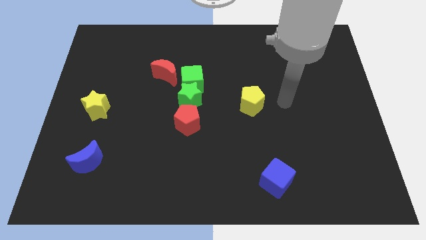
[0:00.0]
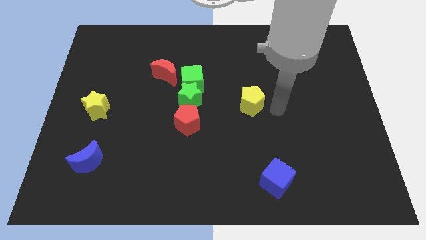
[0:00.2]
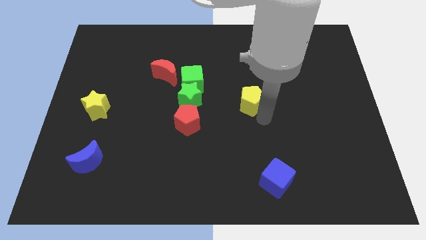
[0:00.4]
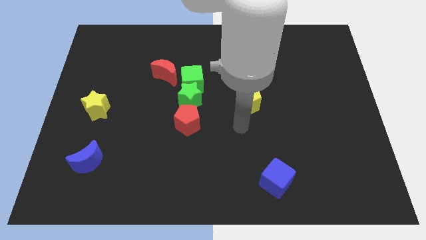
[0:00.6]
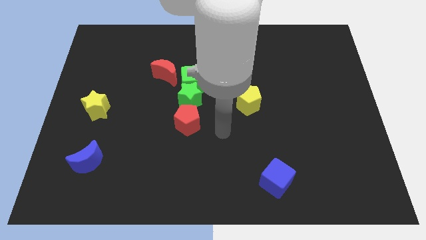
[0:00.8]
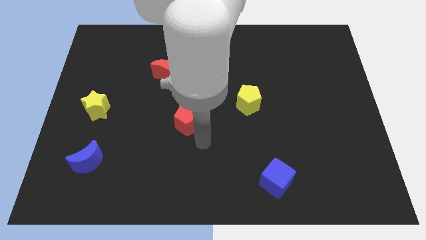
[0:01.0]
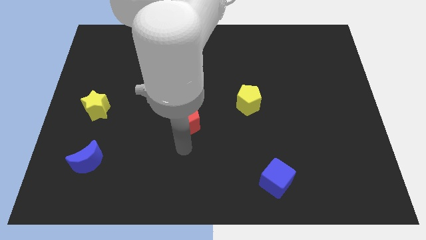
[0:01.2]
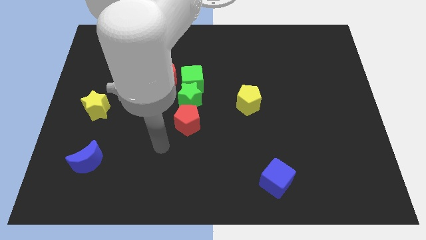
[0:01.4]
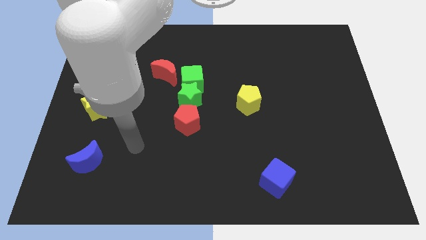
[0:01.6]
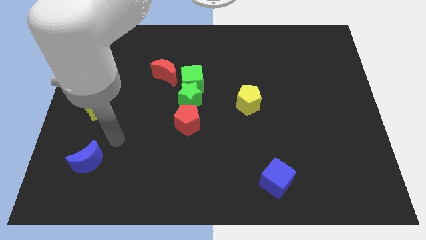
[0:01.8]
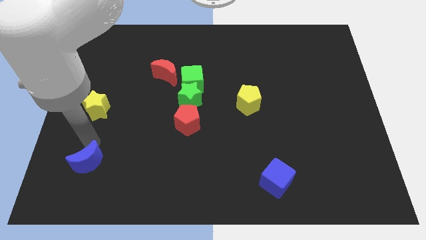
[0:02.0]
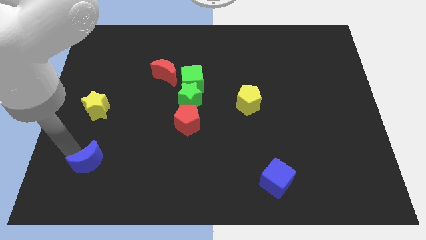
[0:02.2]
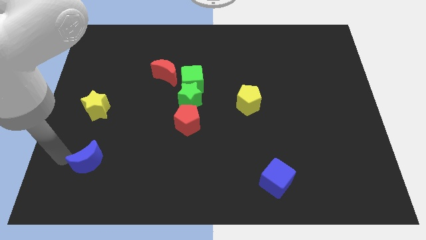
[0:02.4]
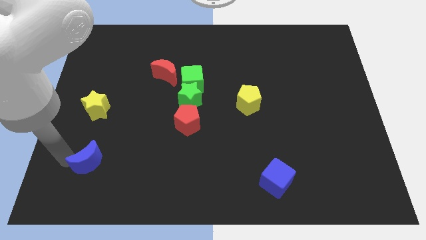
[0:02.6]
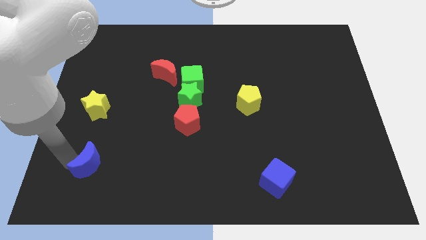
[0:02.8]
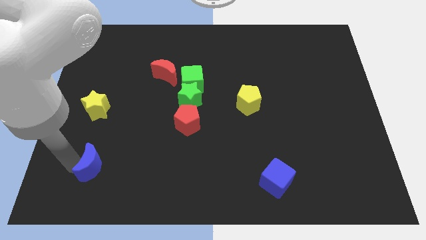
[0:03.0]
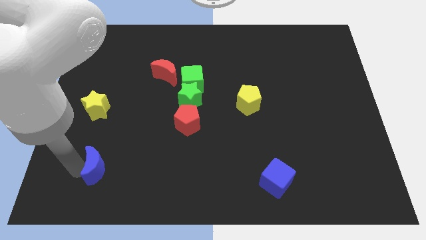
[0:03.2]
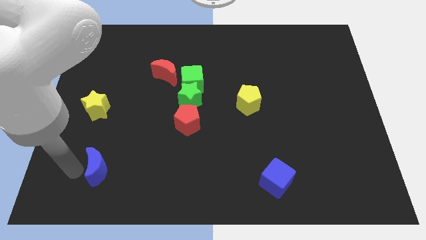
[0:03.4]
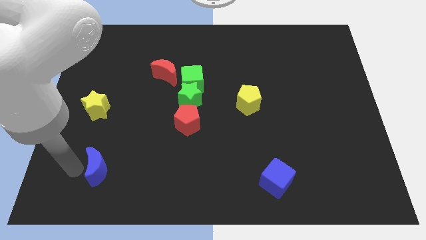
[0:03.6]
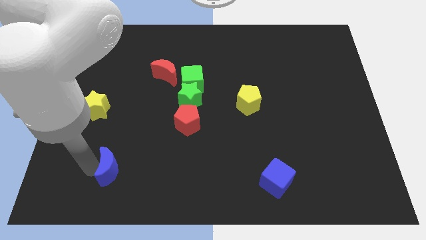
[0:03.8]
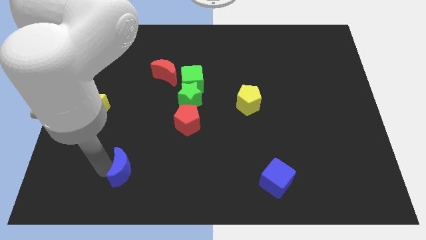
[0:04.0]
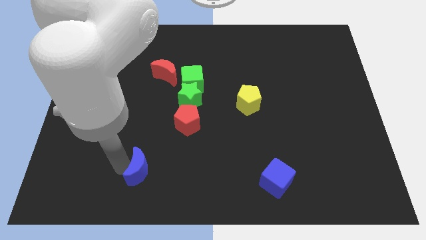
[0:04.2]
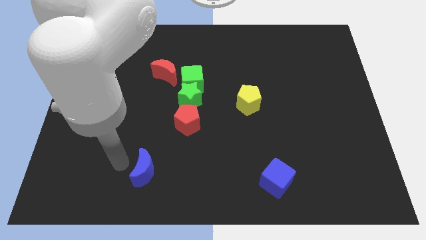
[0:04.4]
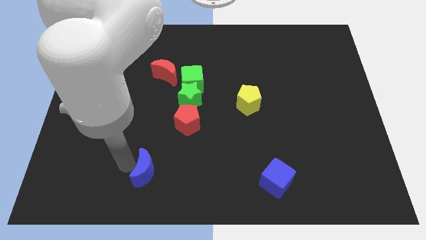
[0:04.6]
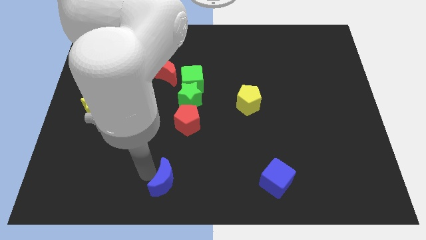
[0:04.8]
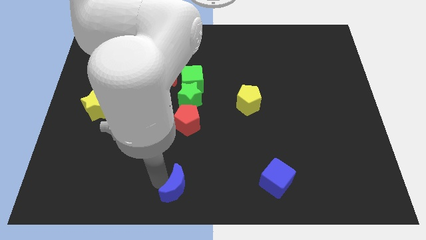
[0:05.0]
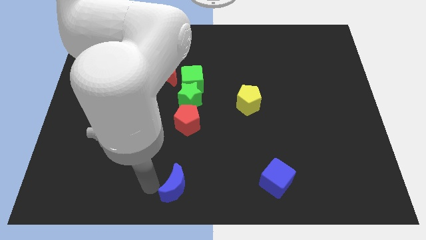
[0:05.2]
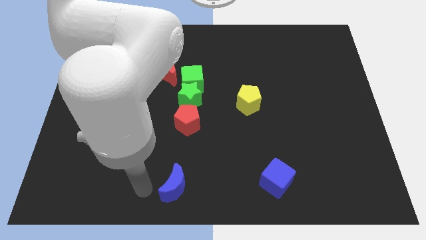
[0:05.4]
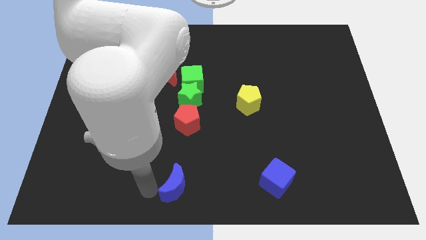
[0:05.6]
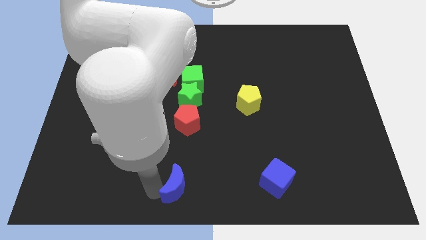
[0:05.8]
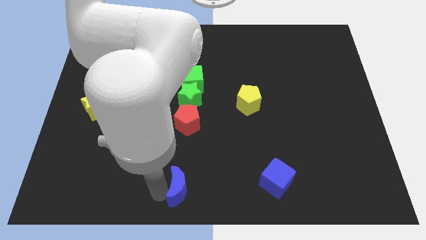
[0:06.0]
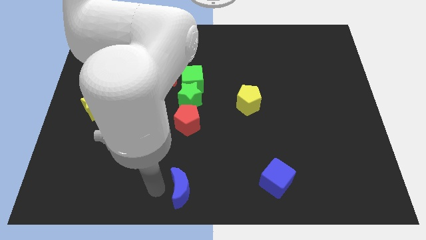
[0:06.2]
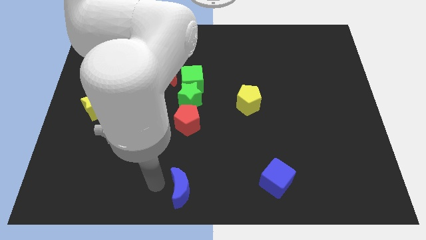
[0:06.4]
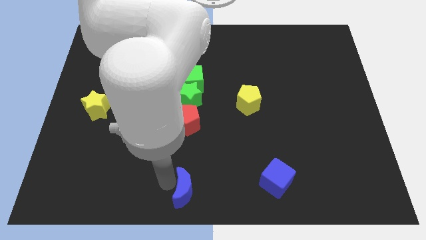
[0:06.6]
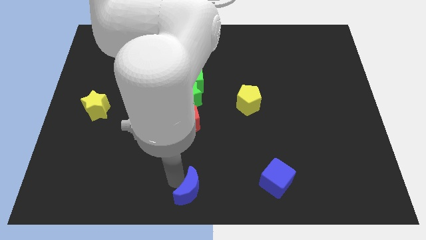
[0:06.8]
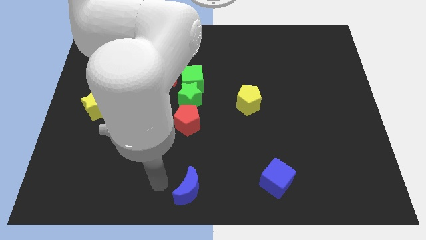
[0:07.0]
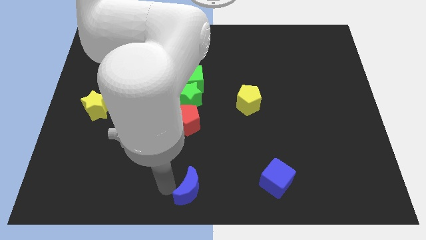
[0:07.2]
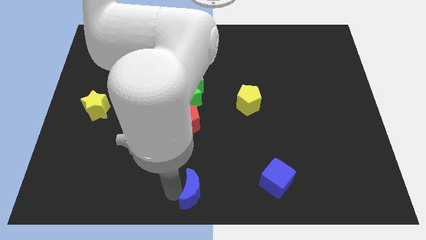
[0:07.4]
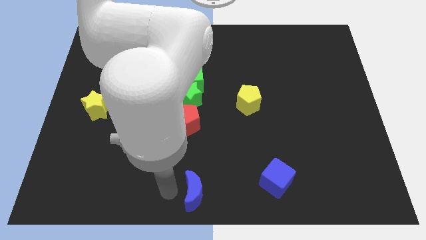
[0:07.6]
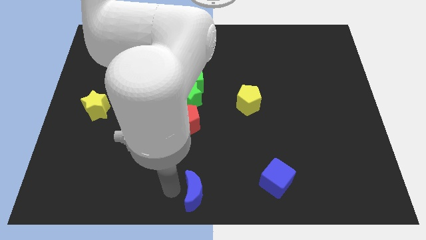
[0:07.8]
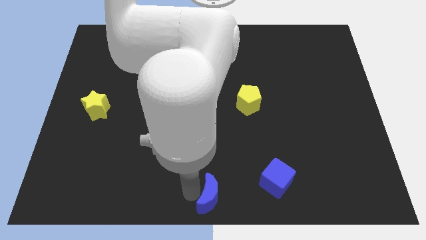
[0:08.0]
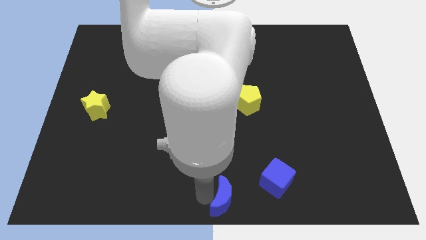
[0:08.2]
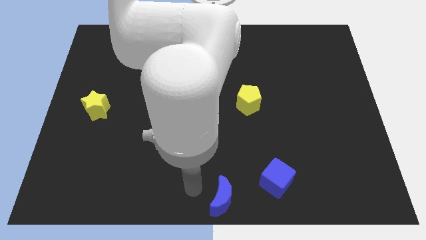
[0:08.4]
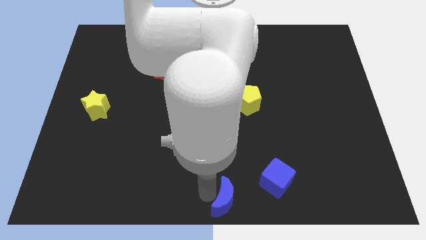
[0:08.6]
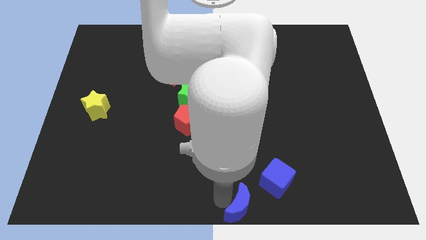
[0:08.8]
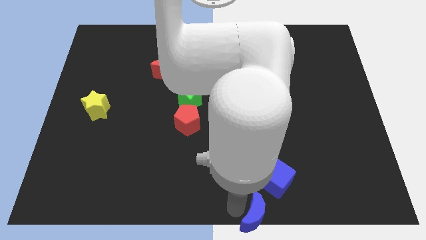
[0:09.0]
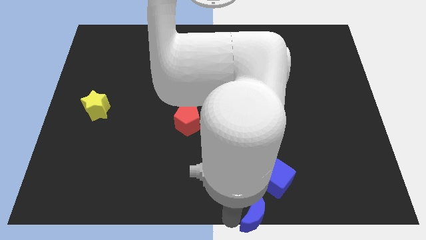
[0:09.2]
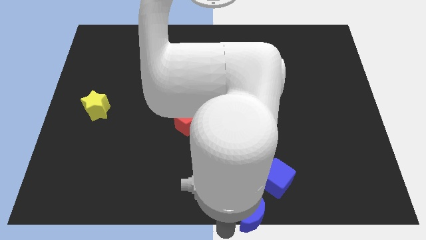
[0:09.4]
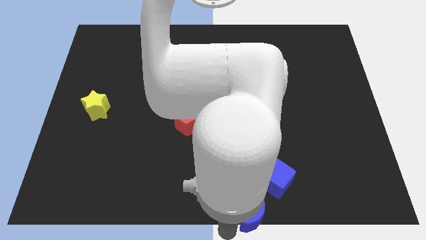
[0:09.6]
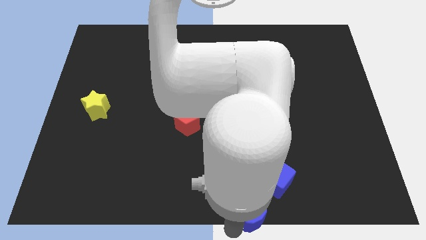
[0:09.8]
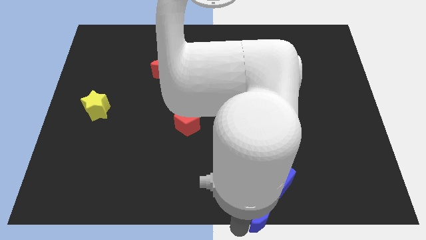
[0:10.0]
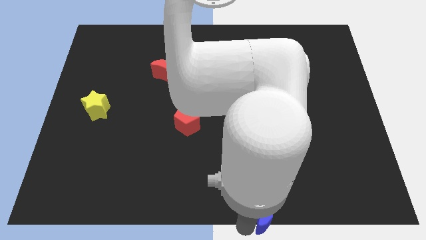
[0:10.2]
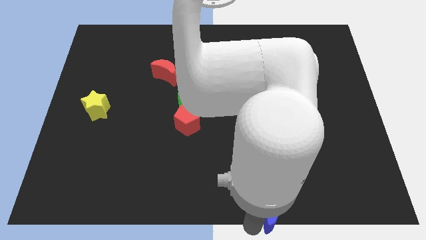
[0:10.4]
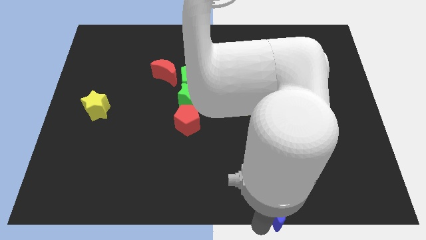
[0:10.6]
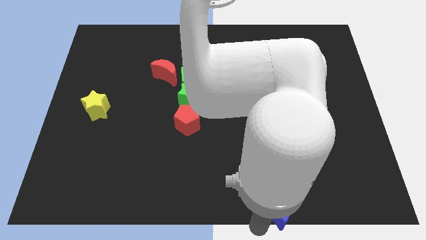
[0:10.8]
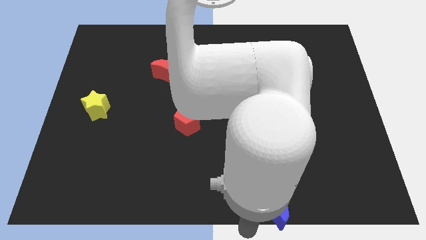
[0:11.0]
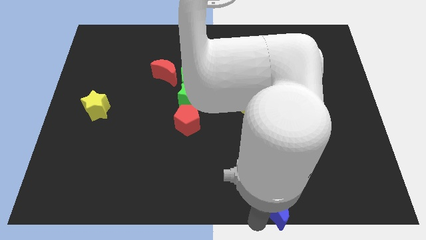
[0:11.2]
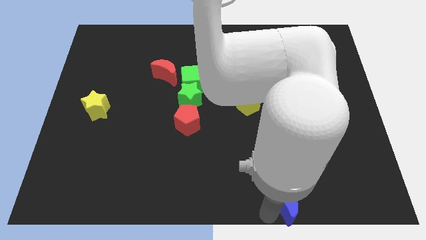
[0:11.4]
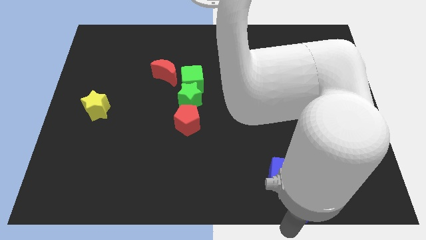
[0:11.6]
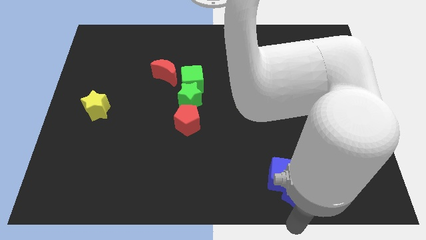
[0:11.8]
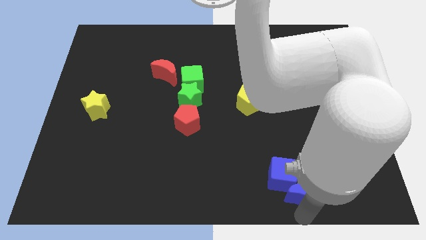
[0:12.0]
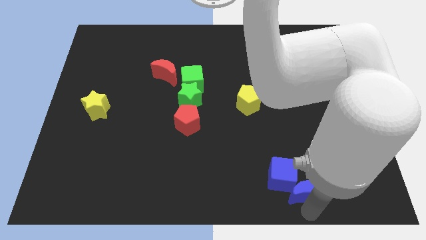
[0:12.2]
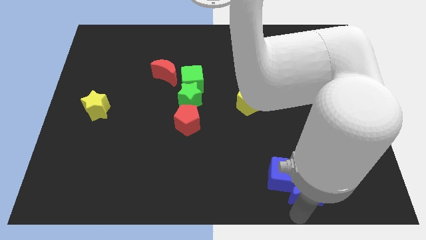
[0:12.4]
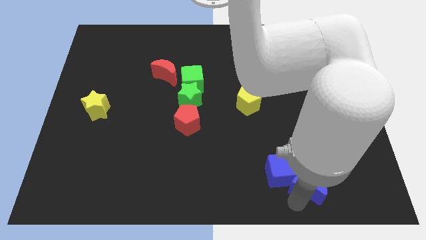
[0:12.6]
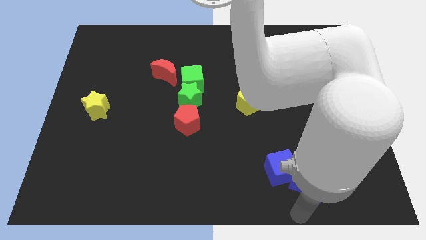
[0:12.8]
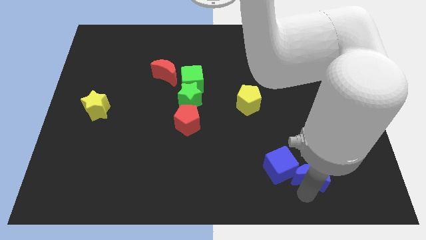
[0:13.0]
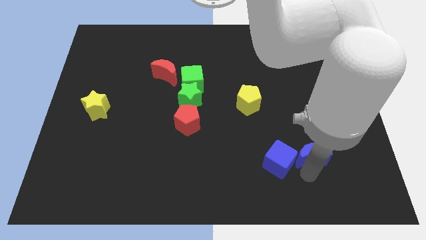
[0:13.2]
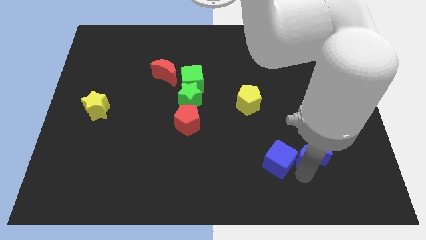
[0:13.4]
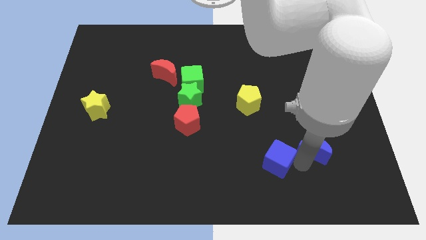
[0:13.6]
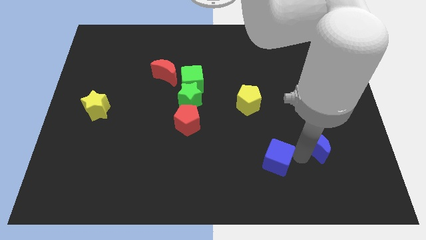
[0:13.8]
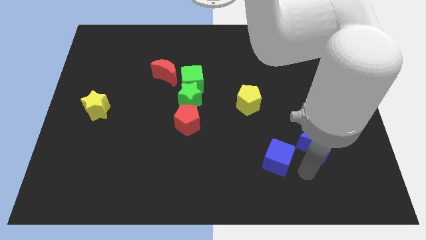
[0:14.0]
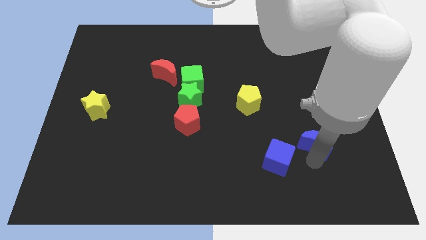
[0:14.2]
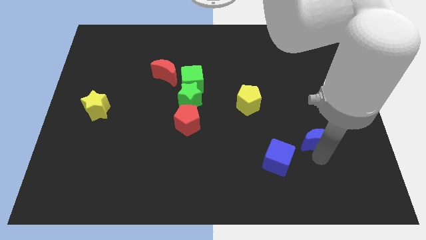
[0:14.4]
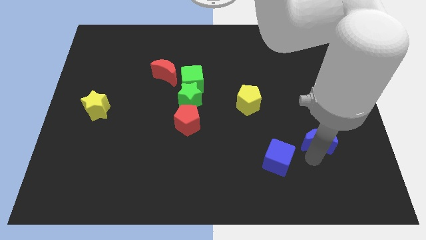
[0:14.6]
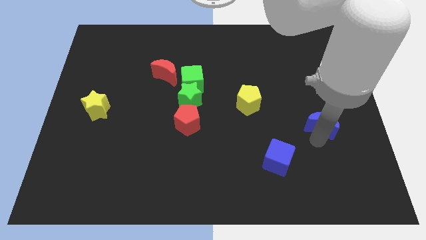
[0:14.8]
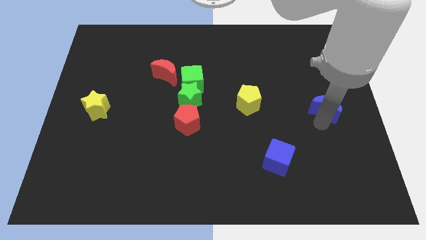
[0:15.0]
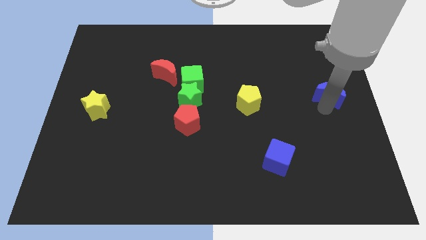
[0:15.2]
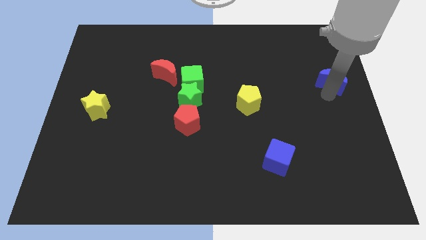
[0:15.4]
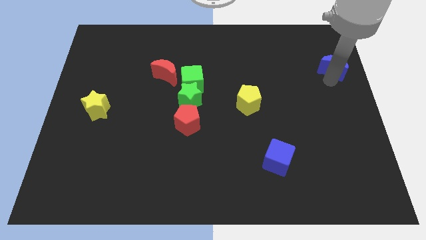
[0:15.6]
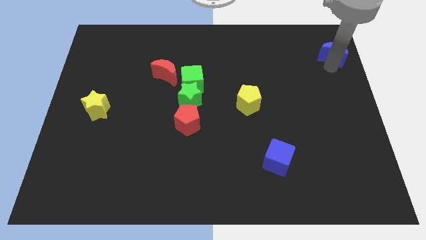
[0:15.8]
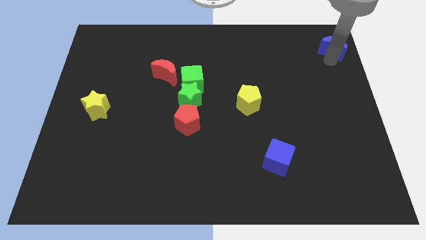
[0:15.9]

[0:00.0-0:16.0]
put the blue moon to the upper right corner
